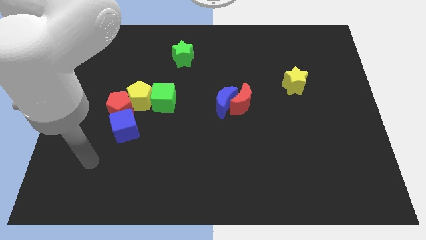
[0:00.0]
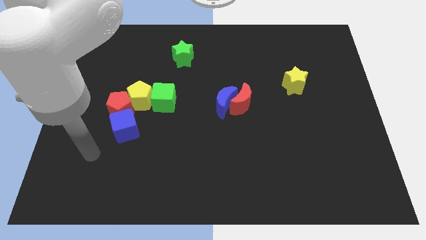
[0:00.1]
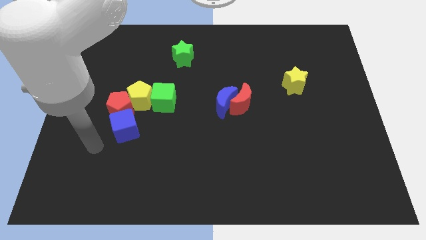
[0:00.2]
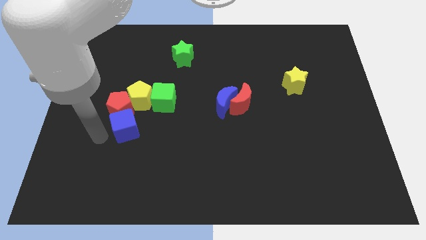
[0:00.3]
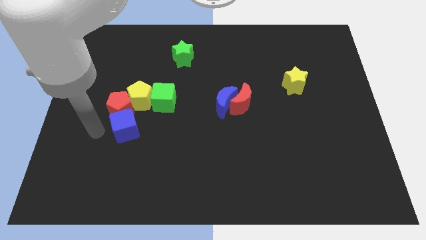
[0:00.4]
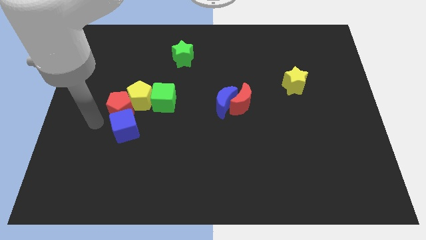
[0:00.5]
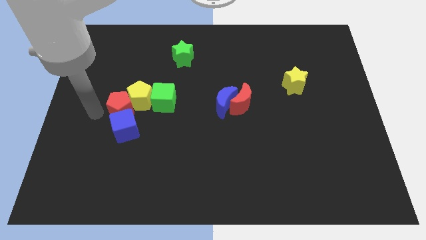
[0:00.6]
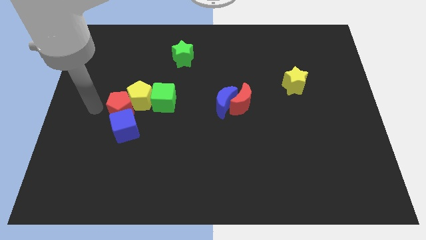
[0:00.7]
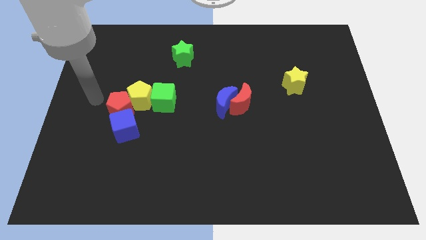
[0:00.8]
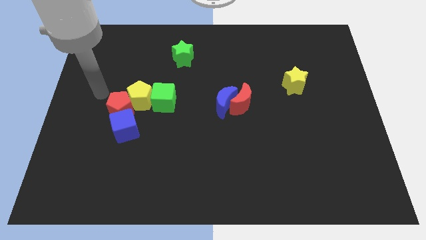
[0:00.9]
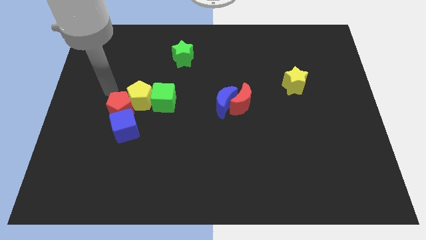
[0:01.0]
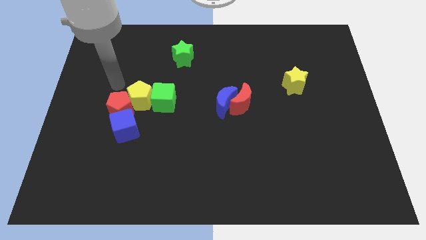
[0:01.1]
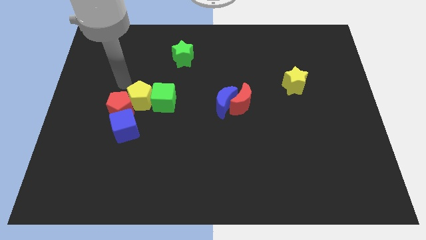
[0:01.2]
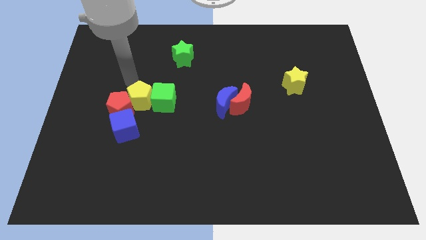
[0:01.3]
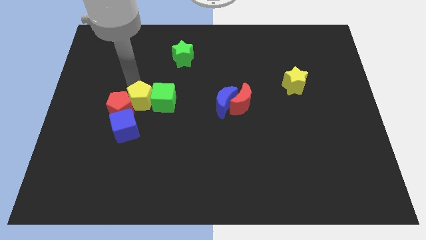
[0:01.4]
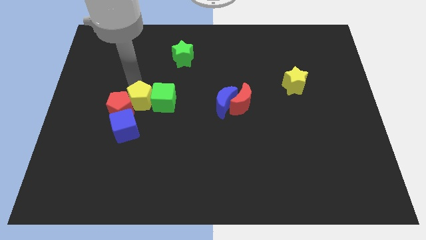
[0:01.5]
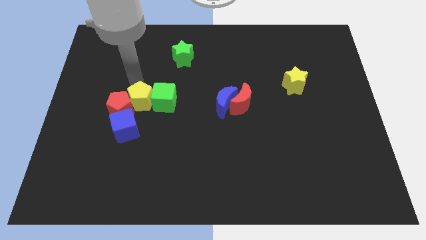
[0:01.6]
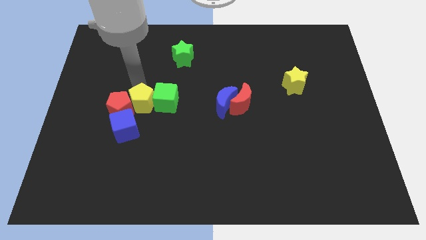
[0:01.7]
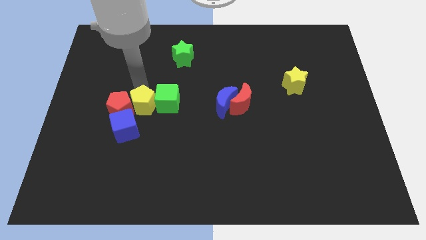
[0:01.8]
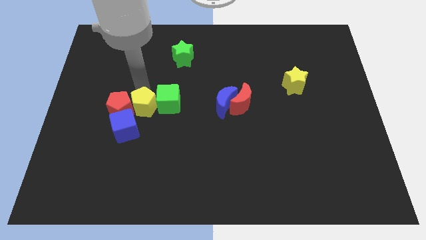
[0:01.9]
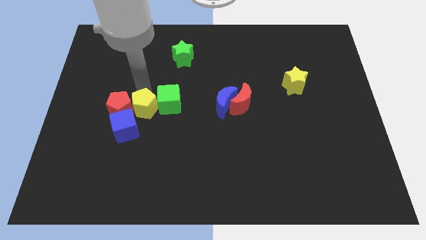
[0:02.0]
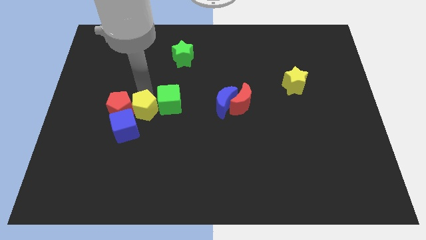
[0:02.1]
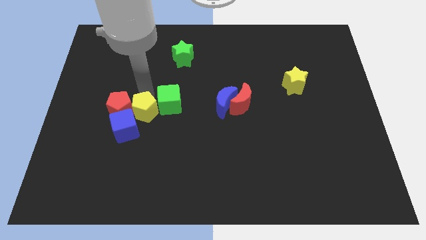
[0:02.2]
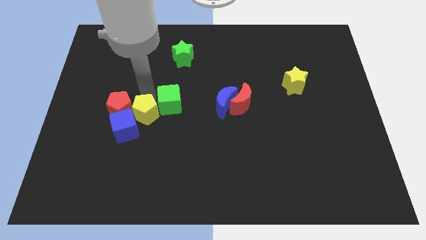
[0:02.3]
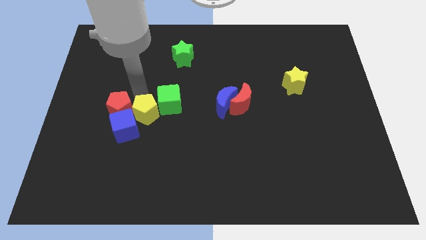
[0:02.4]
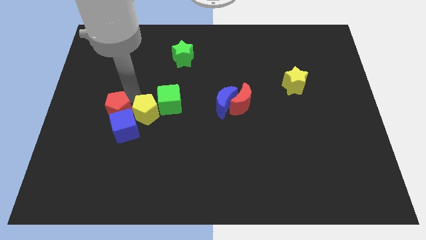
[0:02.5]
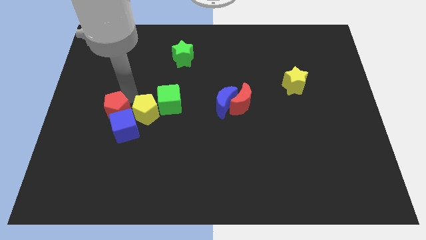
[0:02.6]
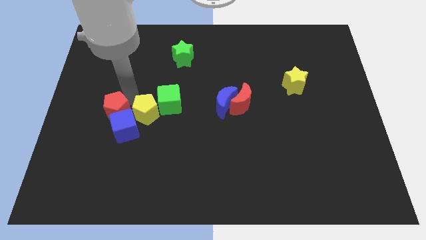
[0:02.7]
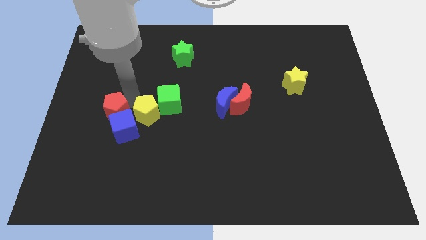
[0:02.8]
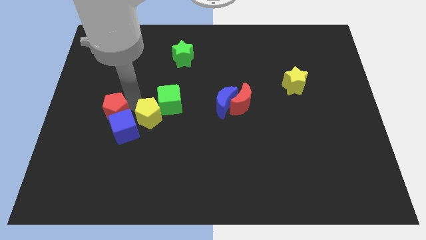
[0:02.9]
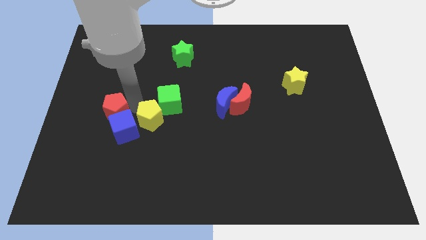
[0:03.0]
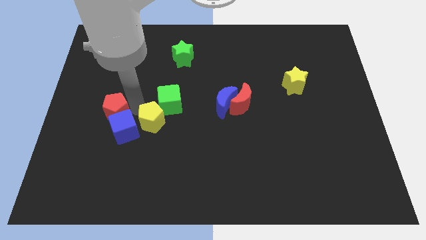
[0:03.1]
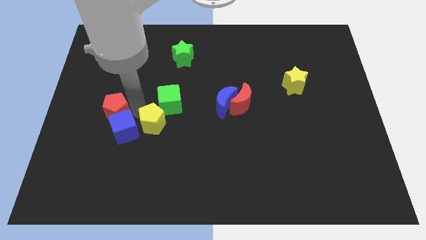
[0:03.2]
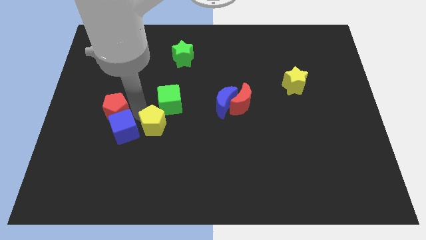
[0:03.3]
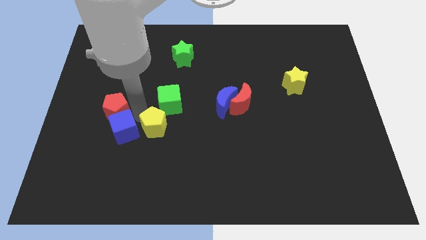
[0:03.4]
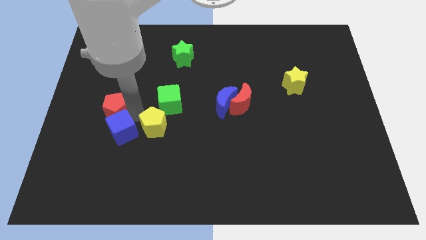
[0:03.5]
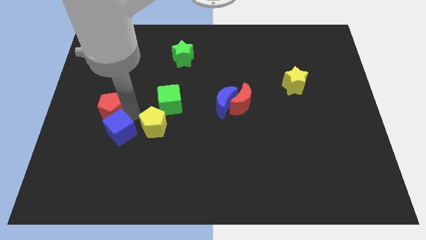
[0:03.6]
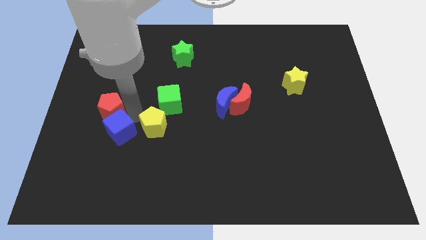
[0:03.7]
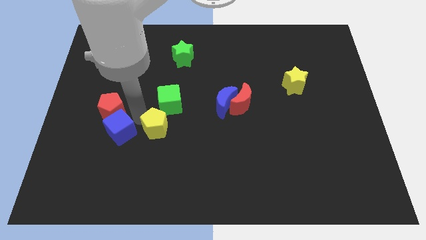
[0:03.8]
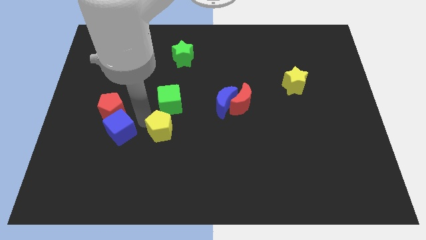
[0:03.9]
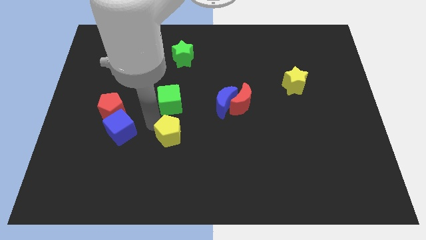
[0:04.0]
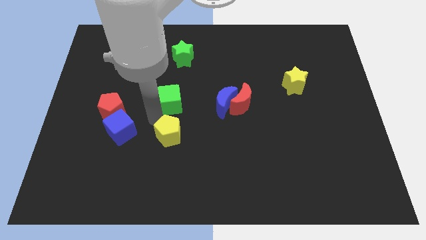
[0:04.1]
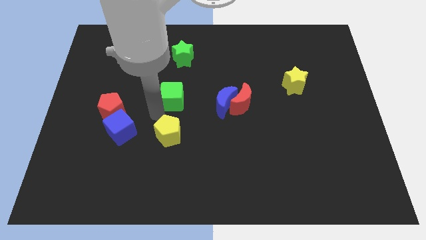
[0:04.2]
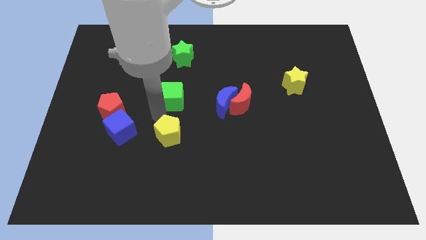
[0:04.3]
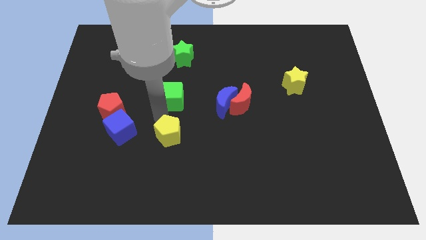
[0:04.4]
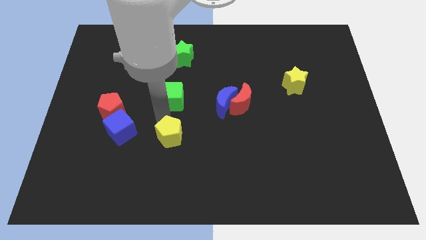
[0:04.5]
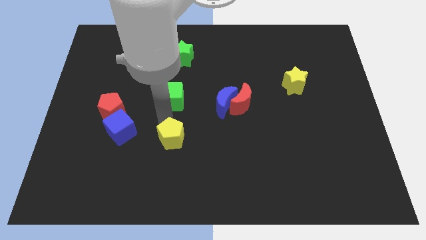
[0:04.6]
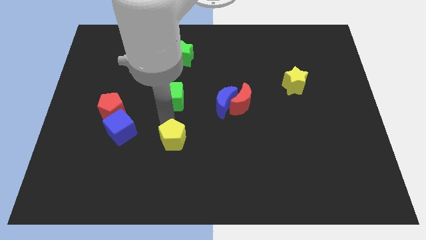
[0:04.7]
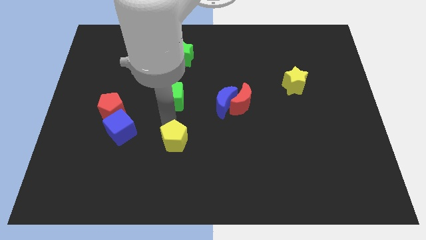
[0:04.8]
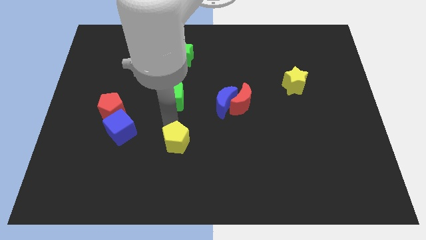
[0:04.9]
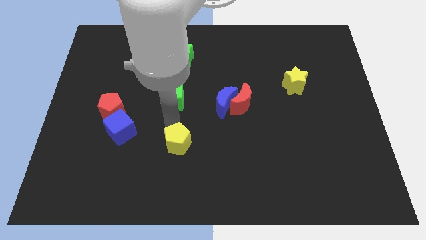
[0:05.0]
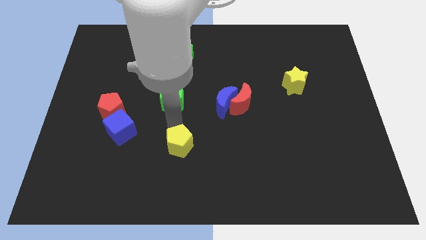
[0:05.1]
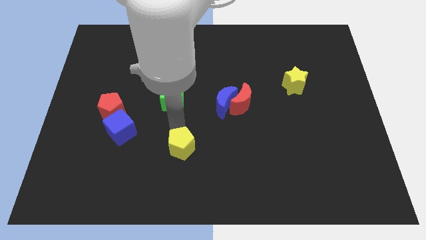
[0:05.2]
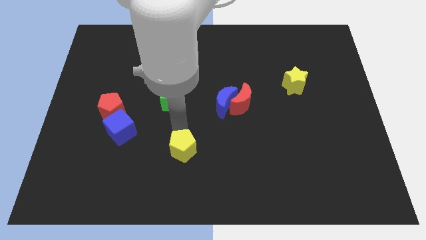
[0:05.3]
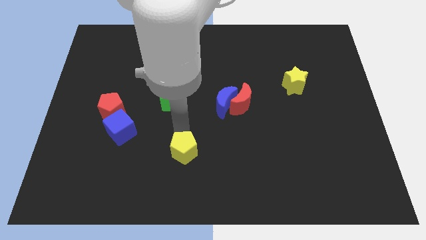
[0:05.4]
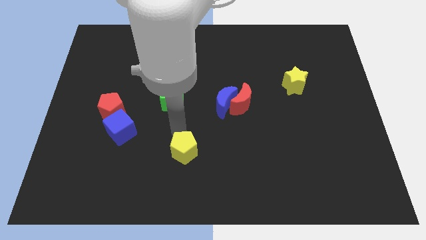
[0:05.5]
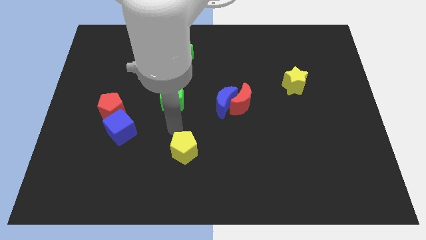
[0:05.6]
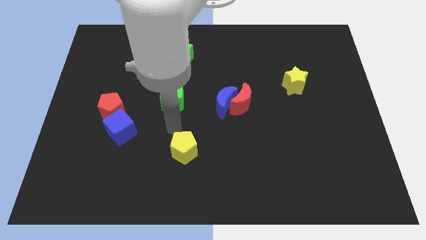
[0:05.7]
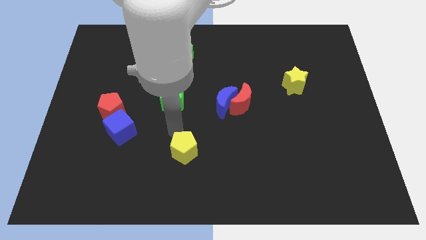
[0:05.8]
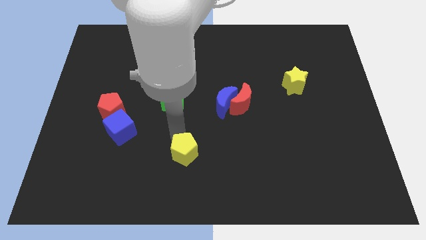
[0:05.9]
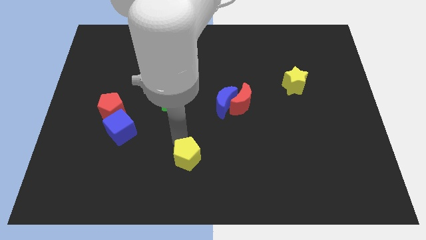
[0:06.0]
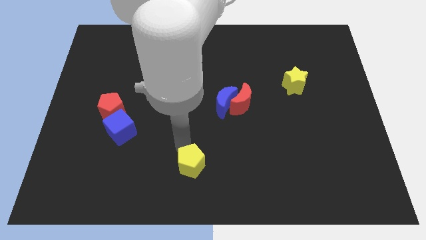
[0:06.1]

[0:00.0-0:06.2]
slide the yellow pentagon to the bottom side
